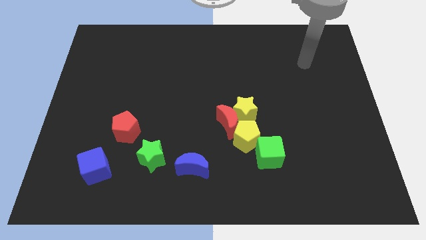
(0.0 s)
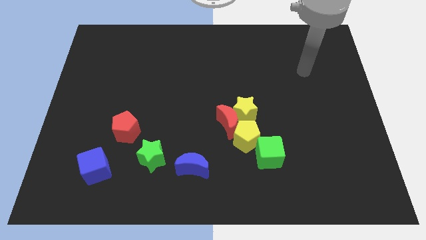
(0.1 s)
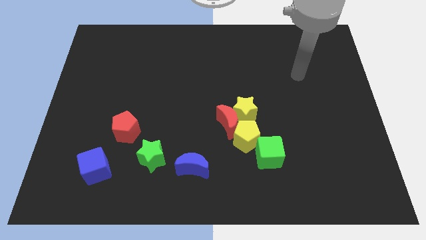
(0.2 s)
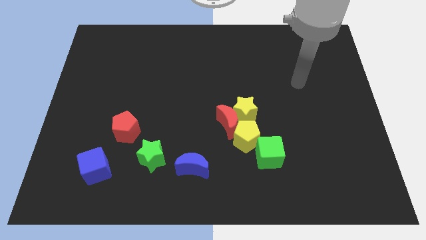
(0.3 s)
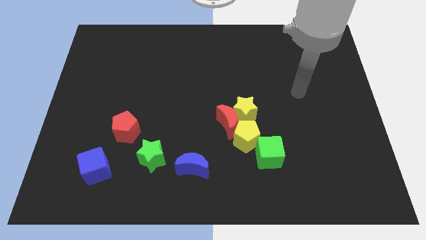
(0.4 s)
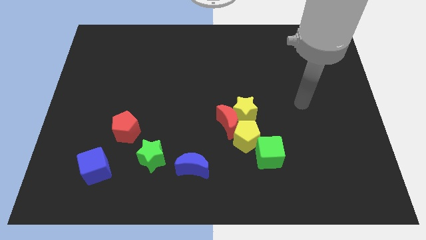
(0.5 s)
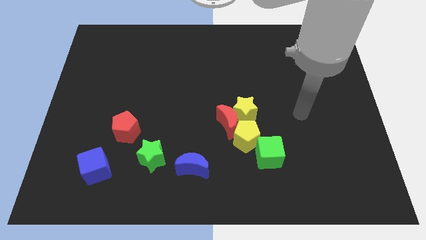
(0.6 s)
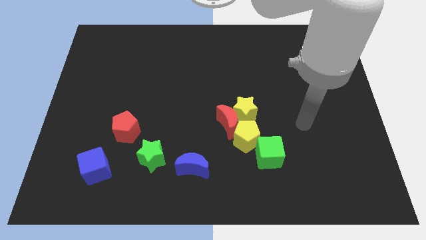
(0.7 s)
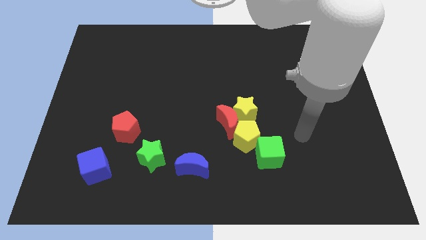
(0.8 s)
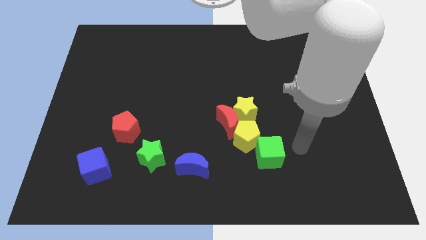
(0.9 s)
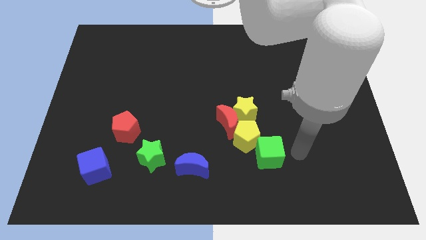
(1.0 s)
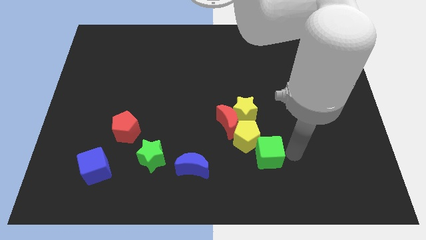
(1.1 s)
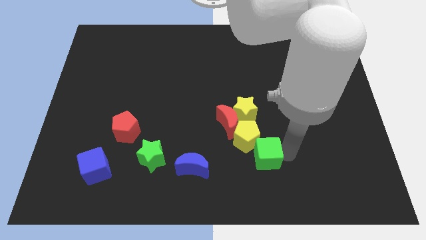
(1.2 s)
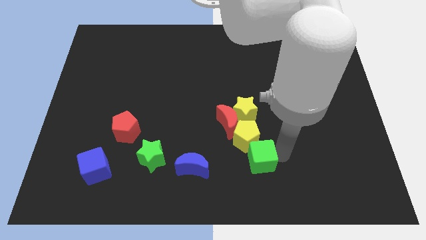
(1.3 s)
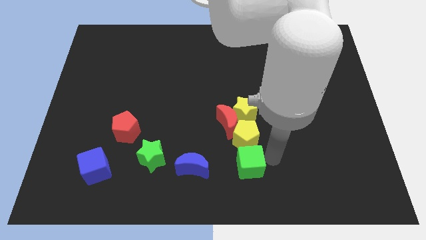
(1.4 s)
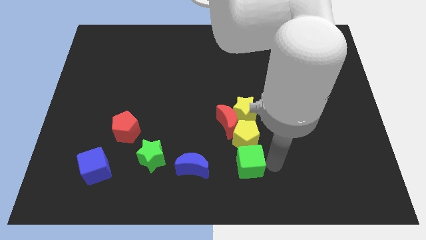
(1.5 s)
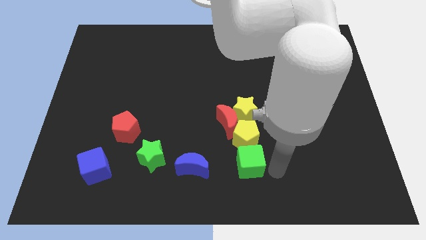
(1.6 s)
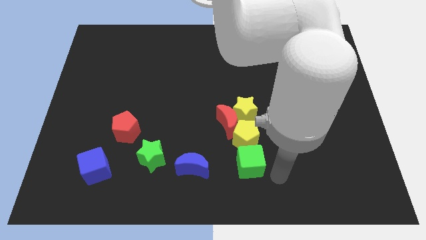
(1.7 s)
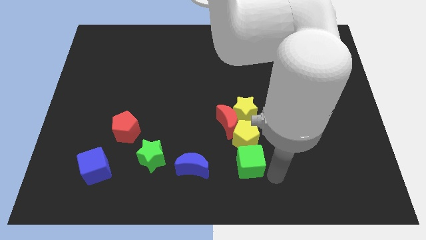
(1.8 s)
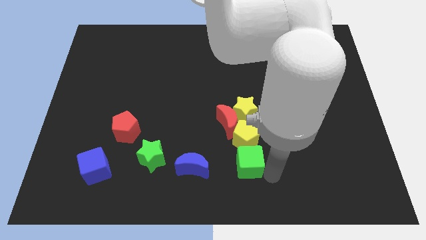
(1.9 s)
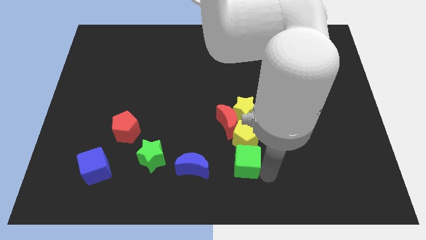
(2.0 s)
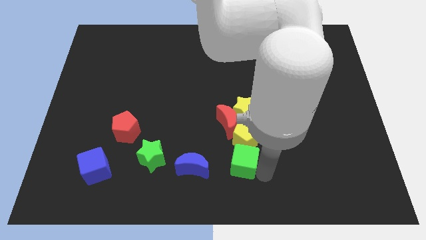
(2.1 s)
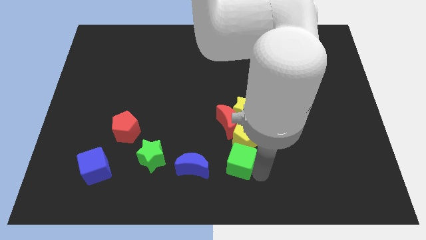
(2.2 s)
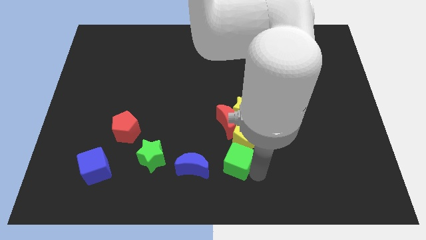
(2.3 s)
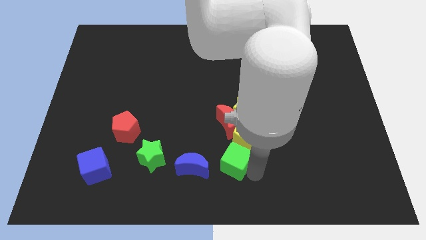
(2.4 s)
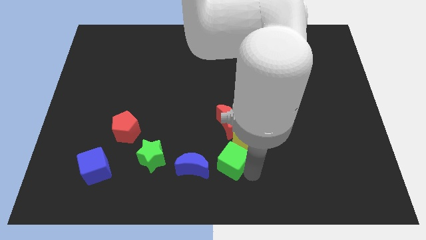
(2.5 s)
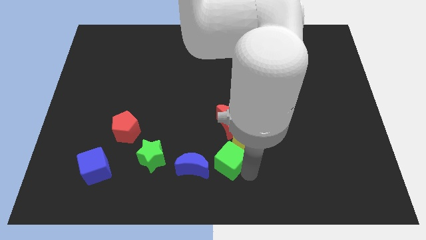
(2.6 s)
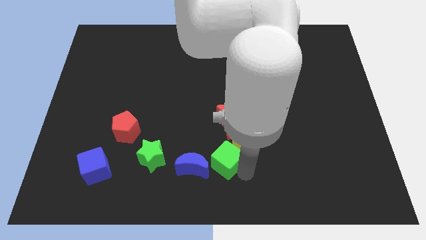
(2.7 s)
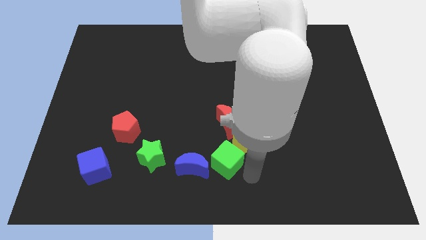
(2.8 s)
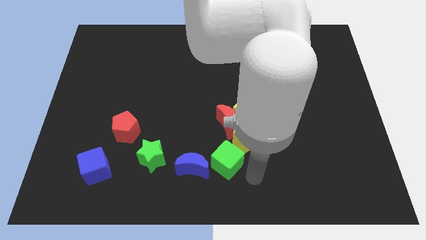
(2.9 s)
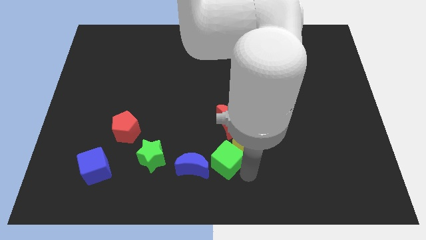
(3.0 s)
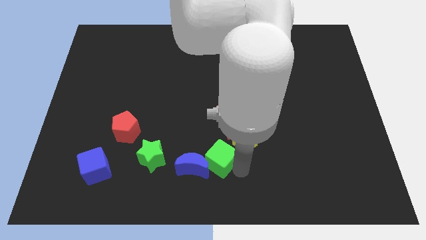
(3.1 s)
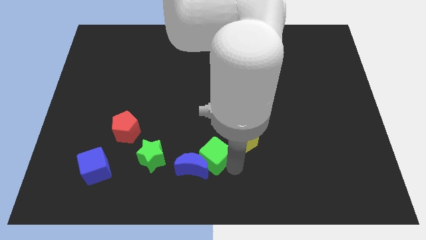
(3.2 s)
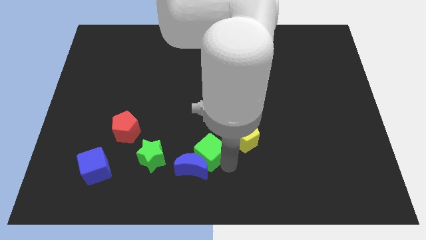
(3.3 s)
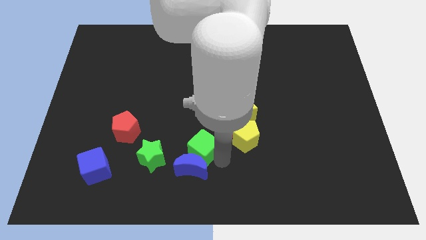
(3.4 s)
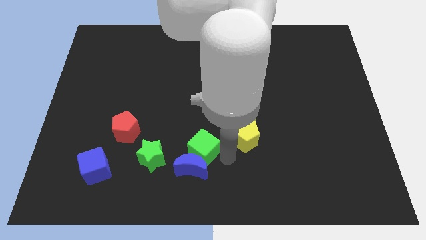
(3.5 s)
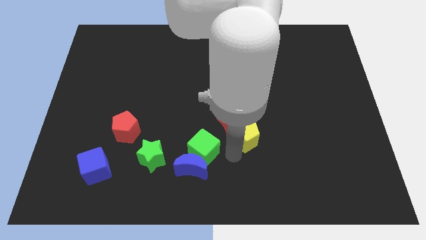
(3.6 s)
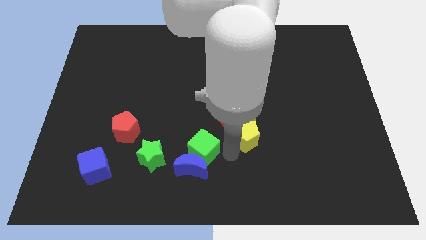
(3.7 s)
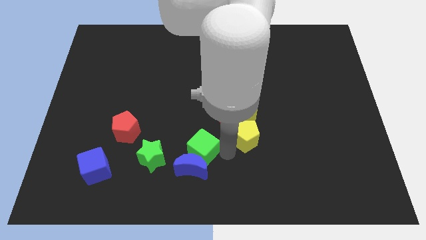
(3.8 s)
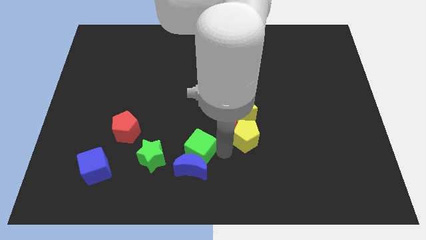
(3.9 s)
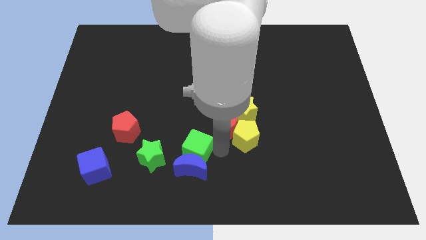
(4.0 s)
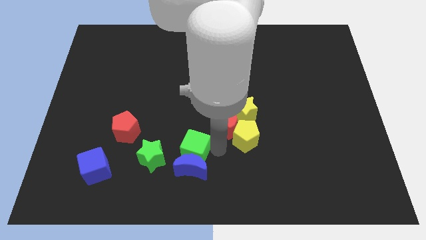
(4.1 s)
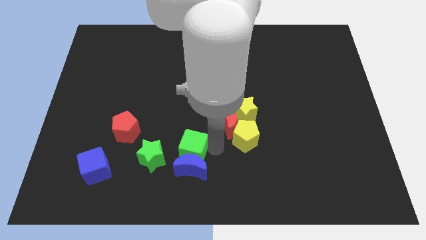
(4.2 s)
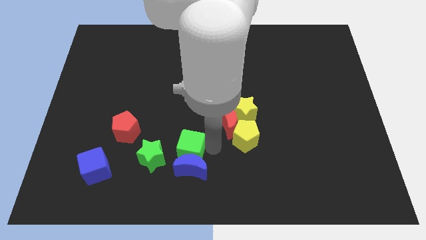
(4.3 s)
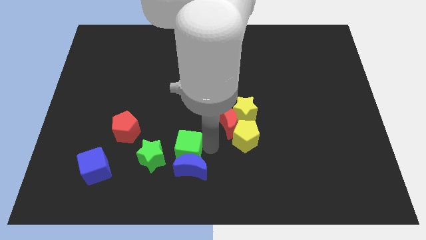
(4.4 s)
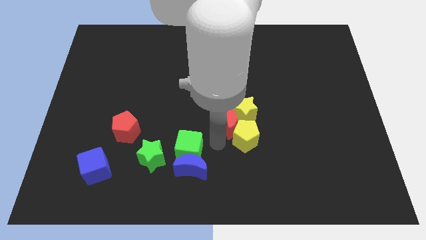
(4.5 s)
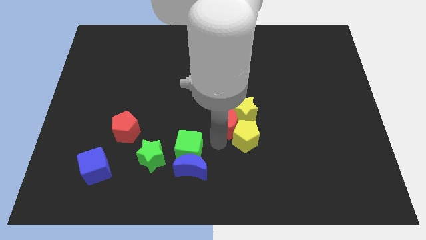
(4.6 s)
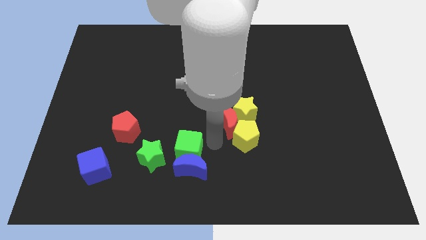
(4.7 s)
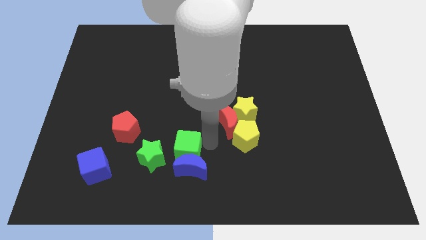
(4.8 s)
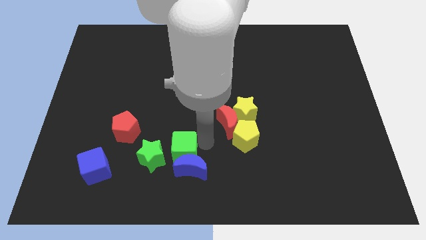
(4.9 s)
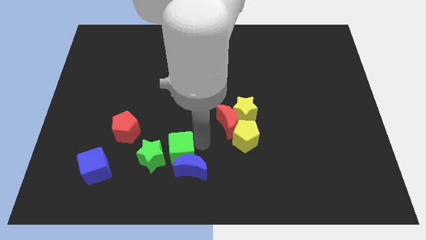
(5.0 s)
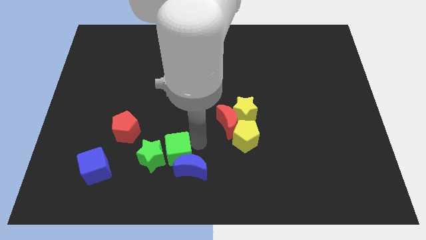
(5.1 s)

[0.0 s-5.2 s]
move the green cube next to the green star

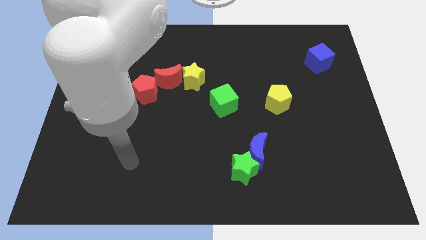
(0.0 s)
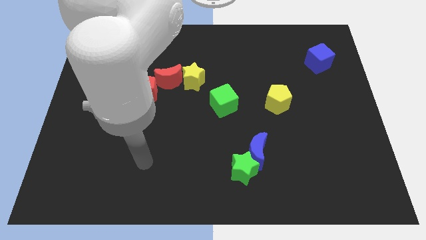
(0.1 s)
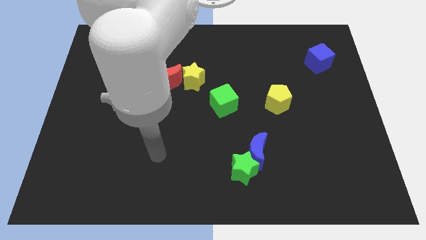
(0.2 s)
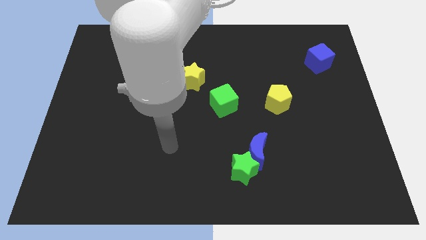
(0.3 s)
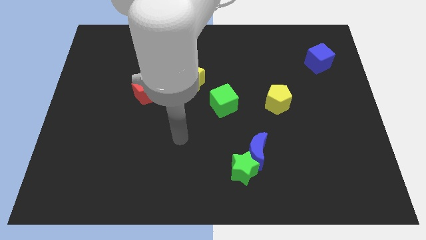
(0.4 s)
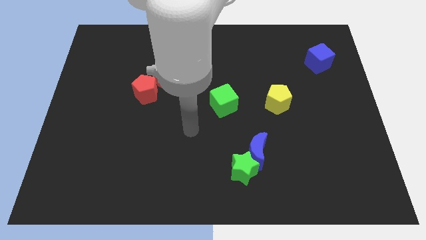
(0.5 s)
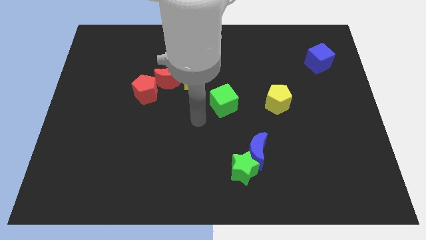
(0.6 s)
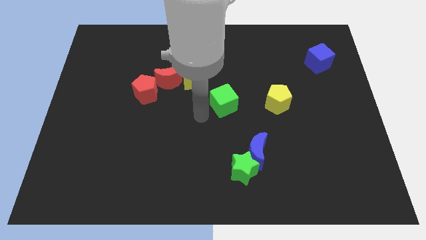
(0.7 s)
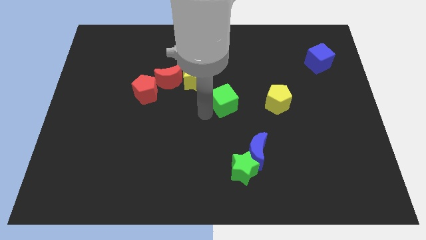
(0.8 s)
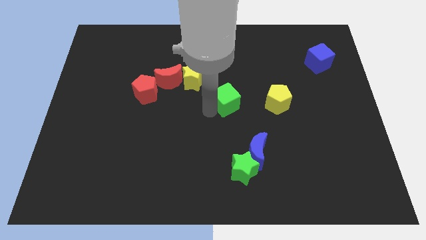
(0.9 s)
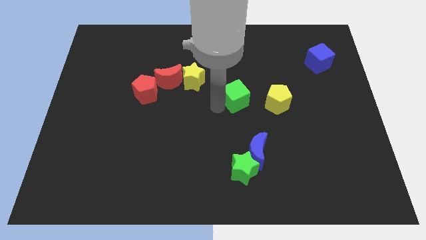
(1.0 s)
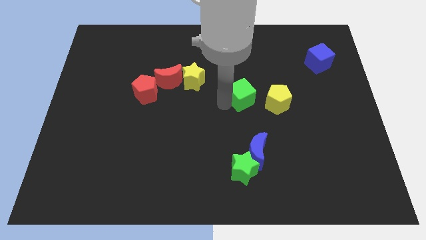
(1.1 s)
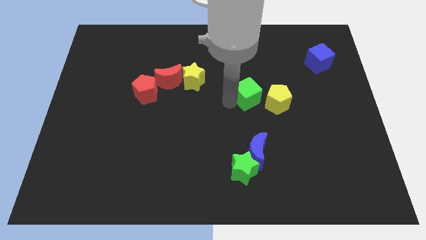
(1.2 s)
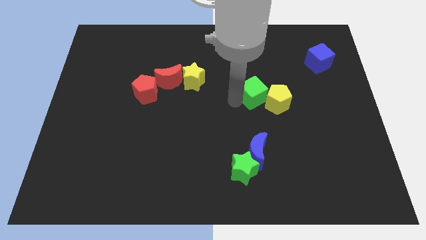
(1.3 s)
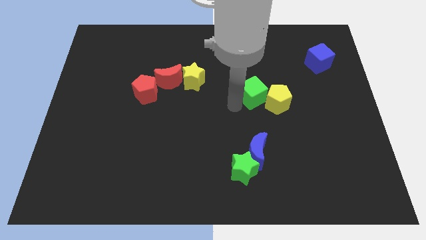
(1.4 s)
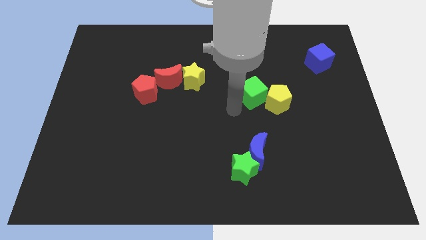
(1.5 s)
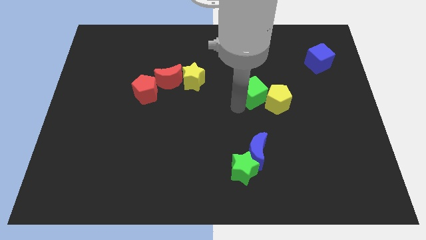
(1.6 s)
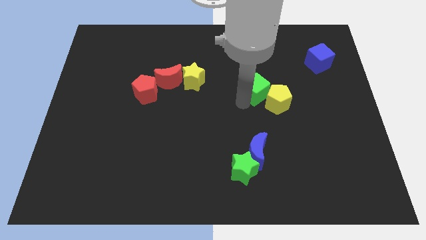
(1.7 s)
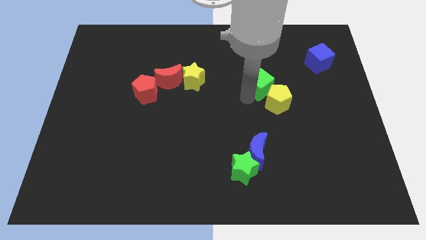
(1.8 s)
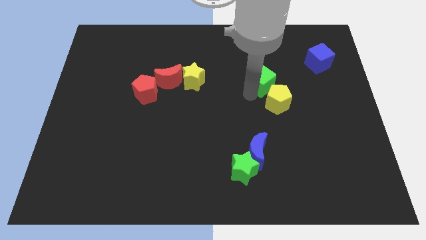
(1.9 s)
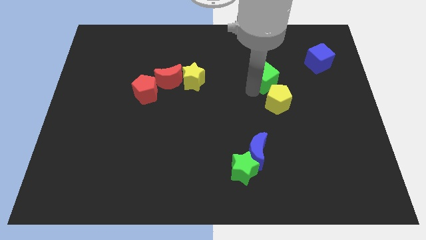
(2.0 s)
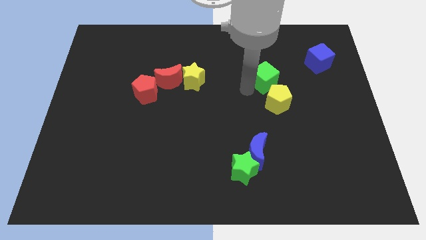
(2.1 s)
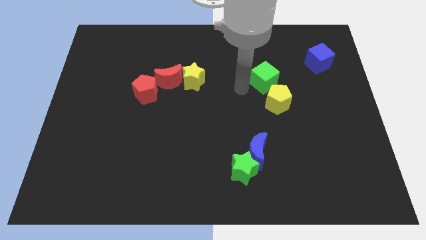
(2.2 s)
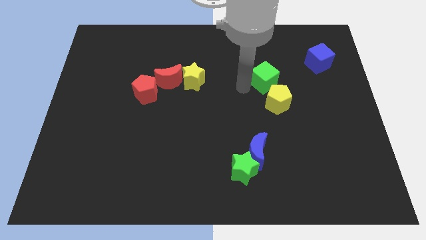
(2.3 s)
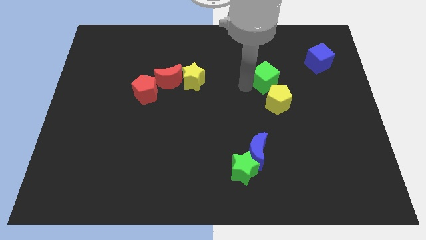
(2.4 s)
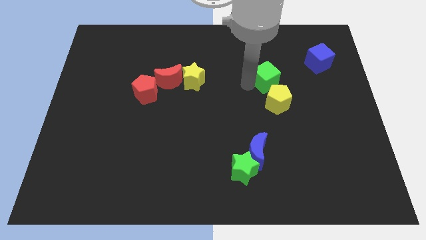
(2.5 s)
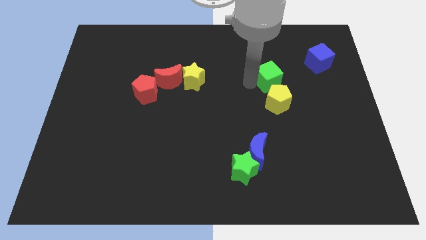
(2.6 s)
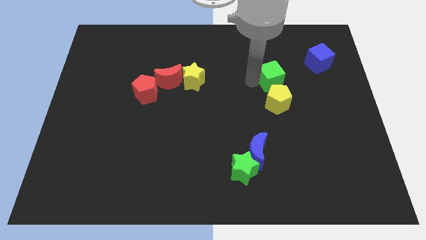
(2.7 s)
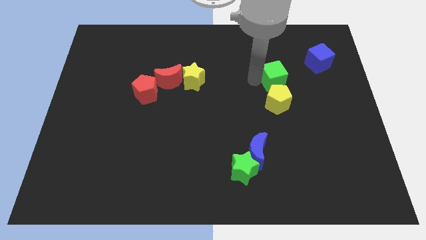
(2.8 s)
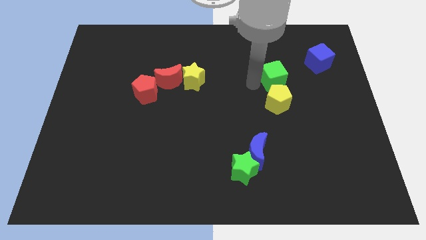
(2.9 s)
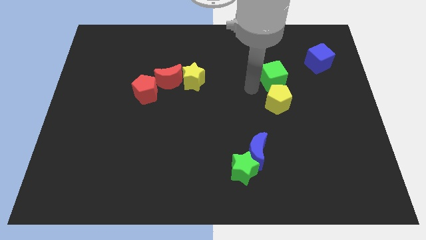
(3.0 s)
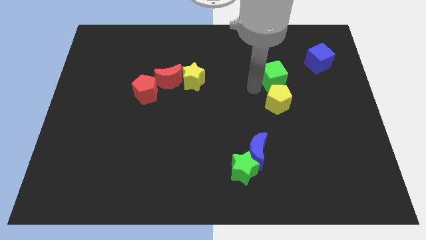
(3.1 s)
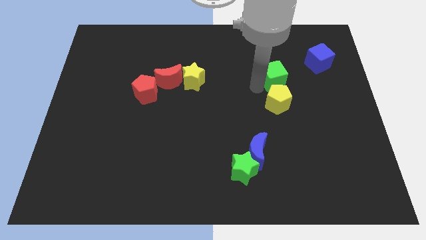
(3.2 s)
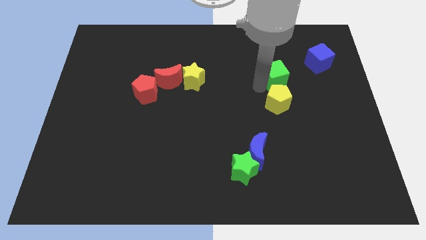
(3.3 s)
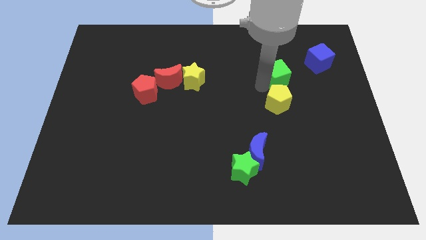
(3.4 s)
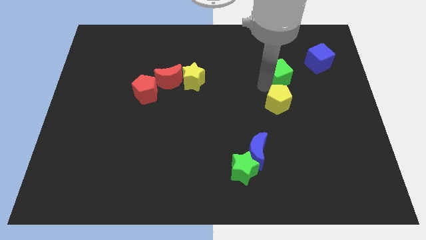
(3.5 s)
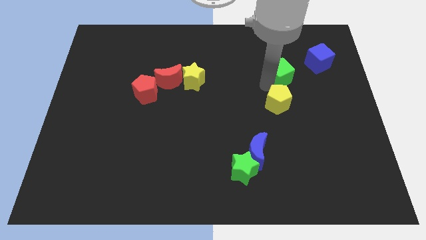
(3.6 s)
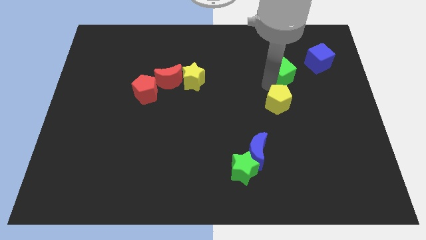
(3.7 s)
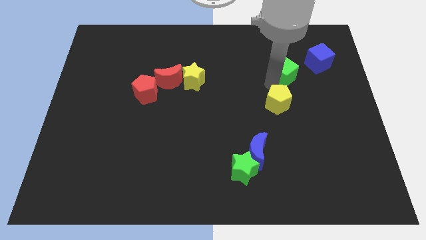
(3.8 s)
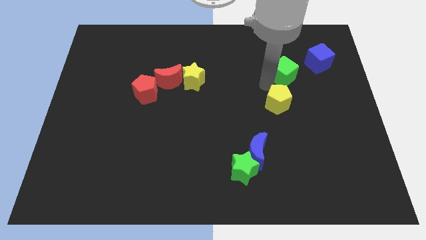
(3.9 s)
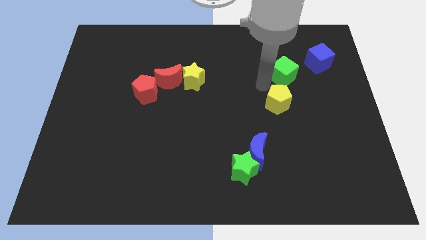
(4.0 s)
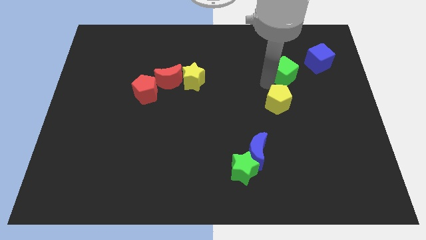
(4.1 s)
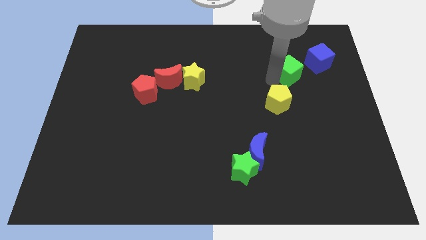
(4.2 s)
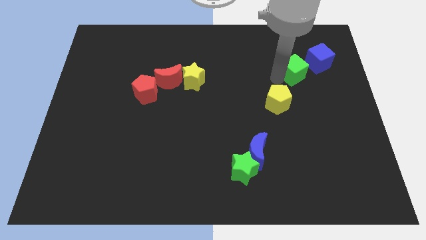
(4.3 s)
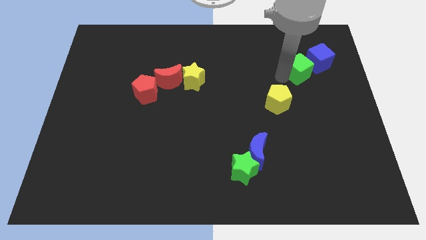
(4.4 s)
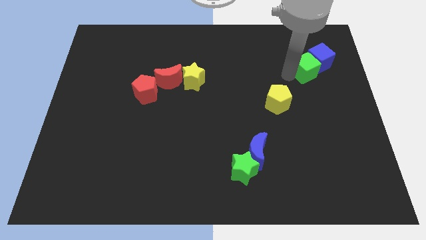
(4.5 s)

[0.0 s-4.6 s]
put the green cube next to the blue cube
